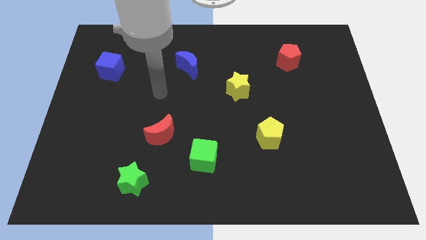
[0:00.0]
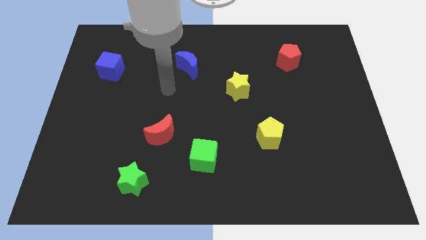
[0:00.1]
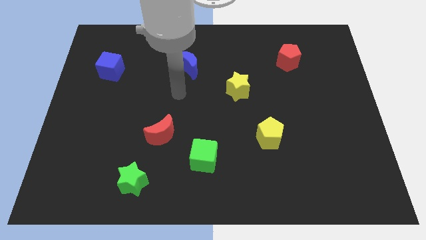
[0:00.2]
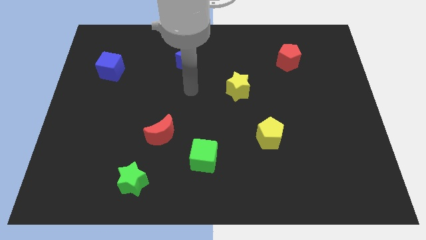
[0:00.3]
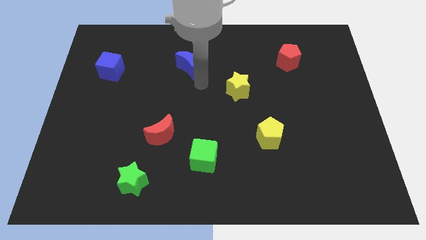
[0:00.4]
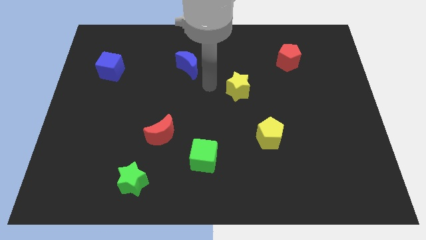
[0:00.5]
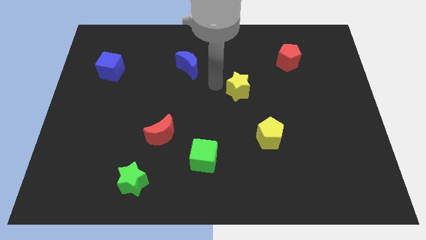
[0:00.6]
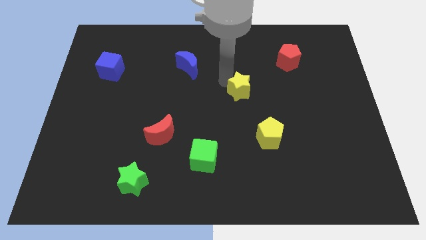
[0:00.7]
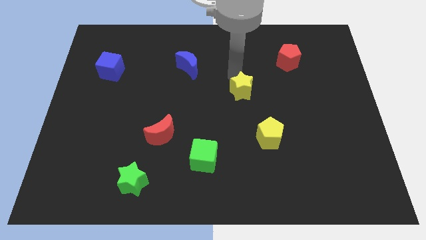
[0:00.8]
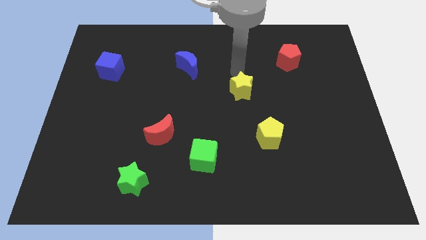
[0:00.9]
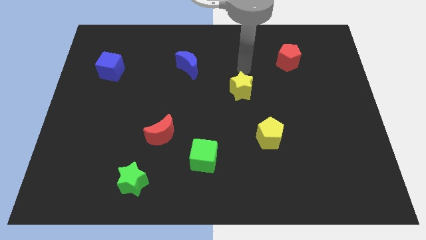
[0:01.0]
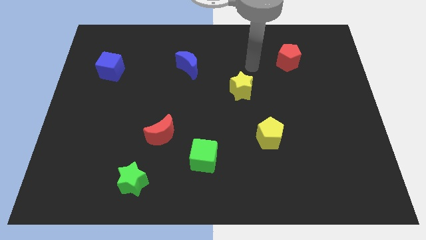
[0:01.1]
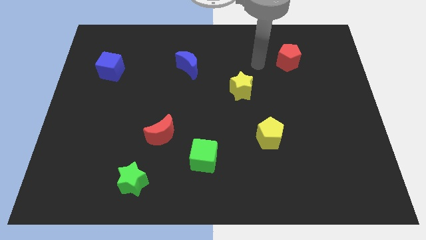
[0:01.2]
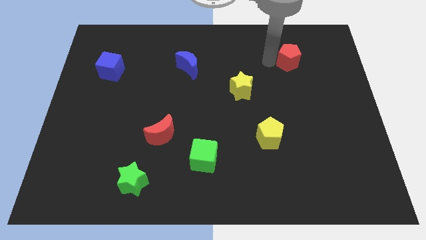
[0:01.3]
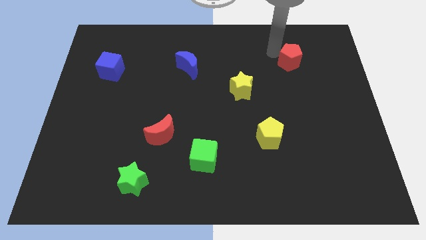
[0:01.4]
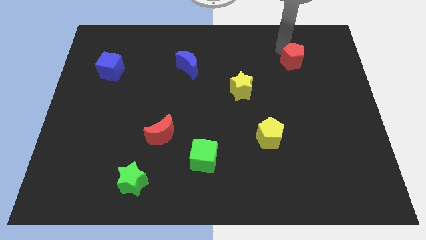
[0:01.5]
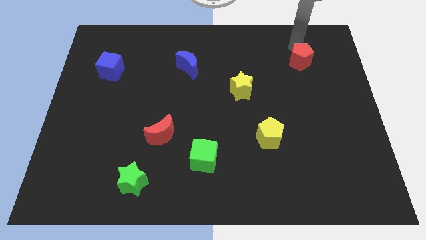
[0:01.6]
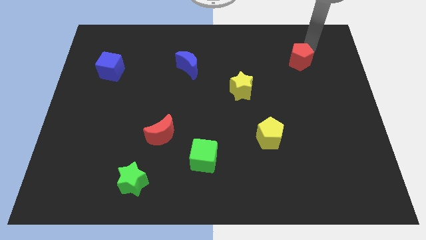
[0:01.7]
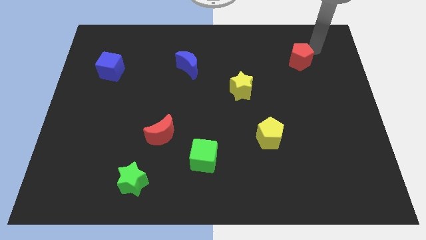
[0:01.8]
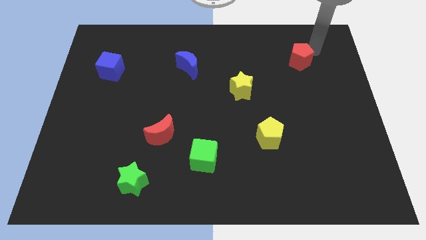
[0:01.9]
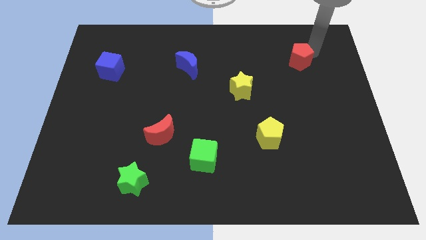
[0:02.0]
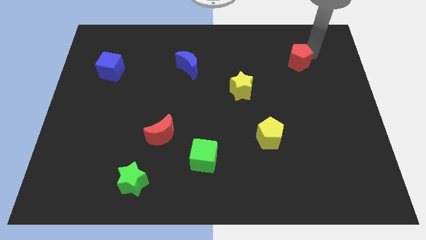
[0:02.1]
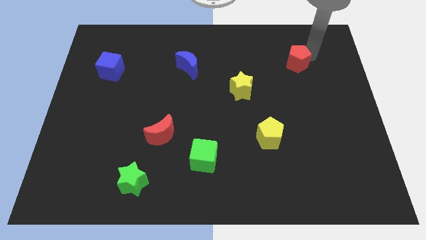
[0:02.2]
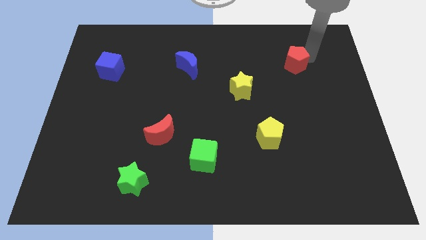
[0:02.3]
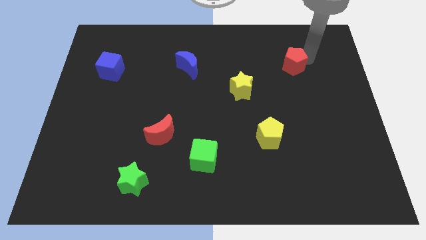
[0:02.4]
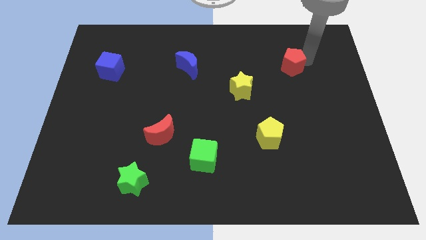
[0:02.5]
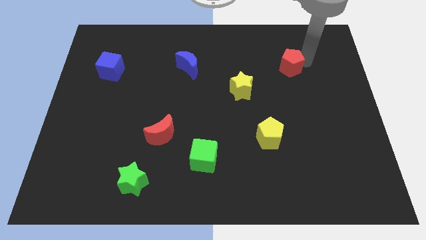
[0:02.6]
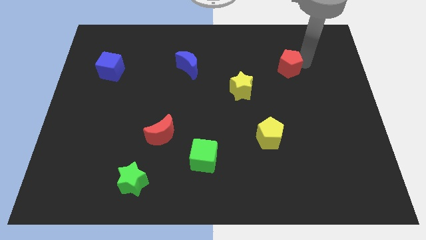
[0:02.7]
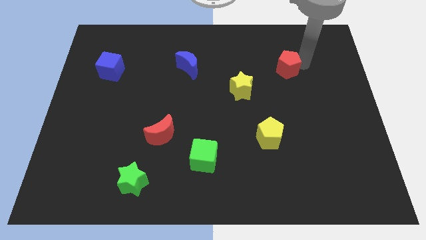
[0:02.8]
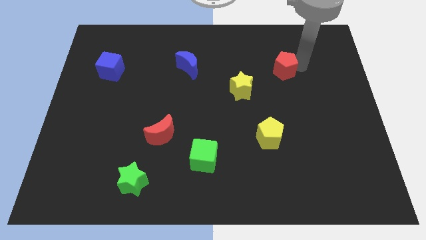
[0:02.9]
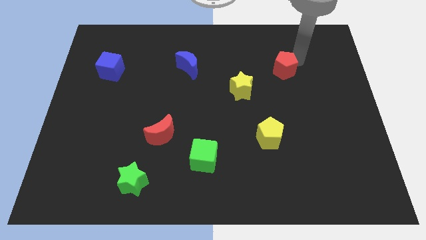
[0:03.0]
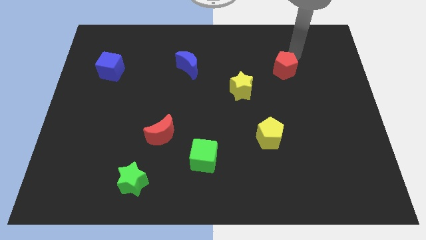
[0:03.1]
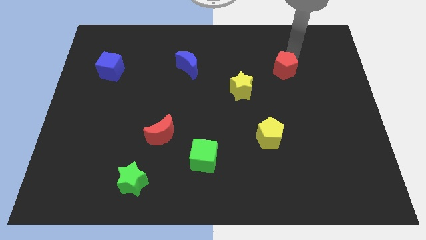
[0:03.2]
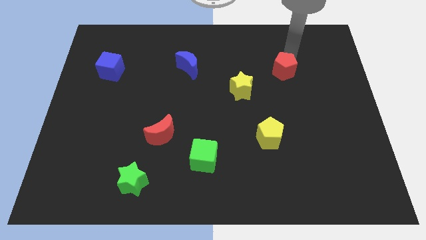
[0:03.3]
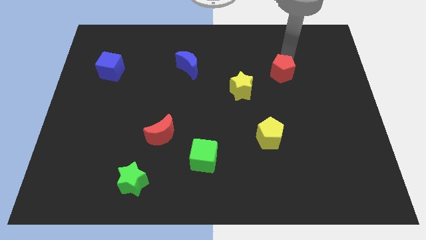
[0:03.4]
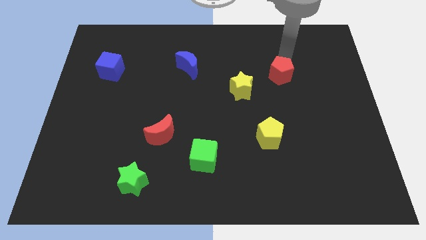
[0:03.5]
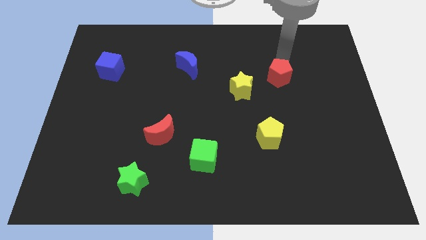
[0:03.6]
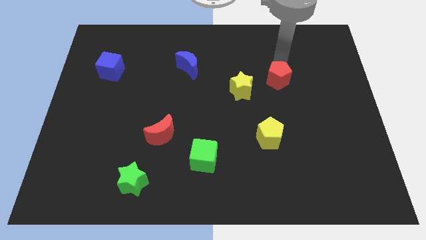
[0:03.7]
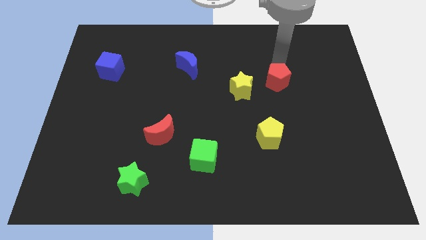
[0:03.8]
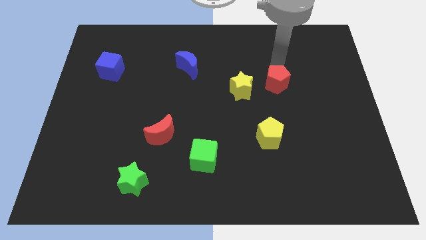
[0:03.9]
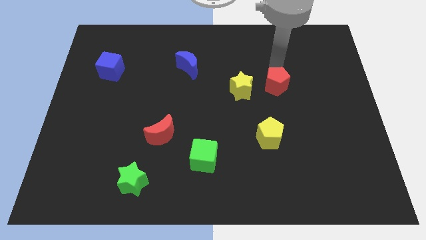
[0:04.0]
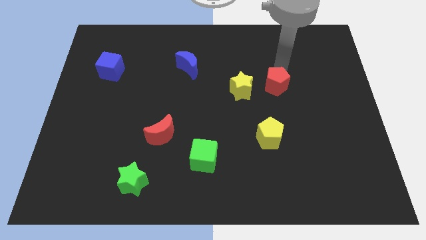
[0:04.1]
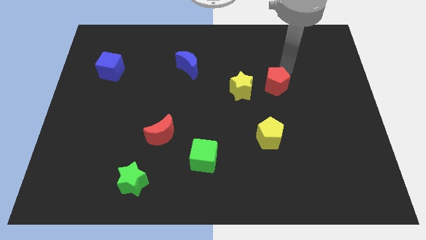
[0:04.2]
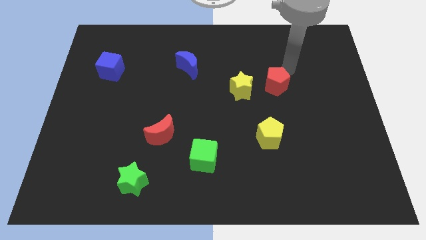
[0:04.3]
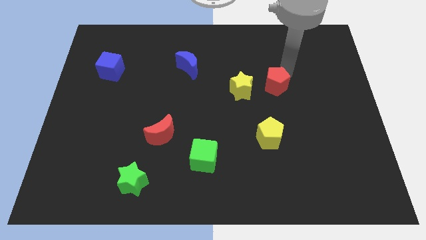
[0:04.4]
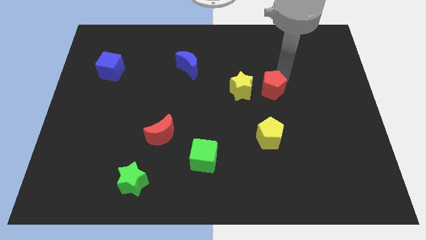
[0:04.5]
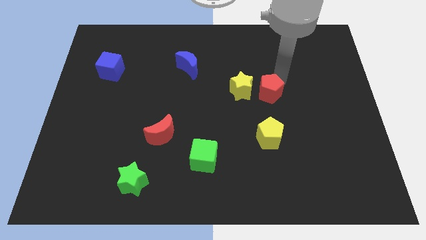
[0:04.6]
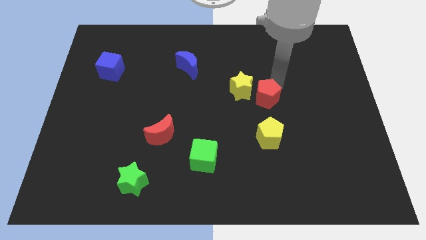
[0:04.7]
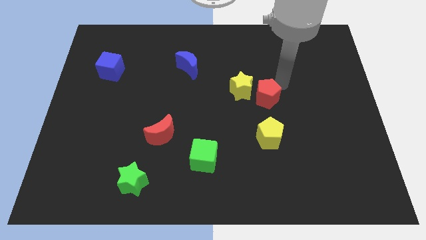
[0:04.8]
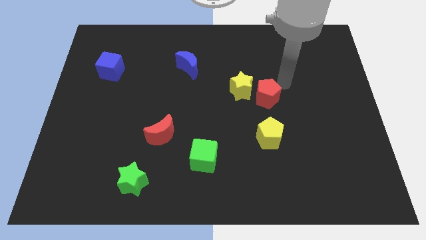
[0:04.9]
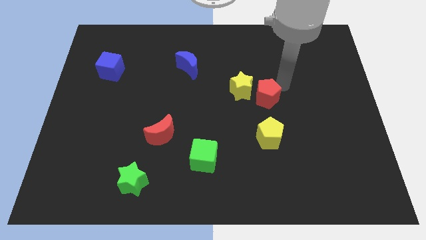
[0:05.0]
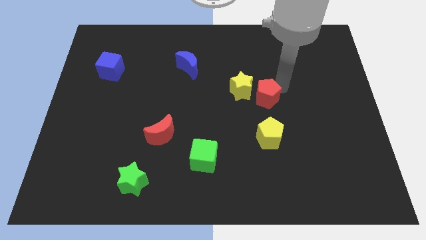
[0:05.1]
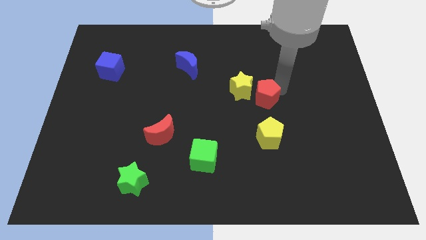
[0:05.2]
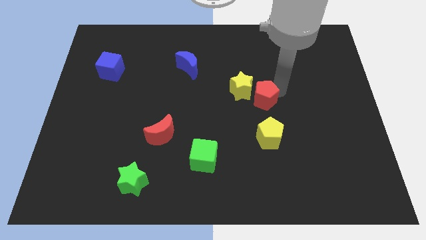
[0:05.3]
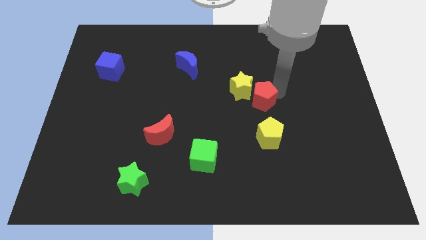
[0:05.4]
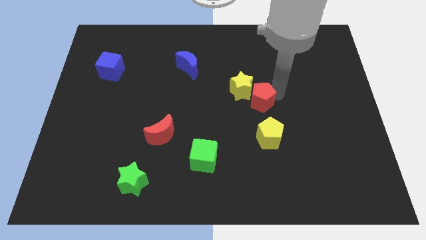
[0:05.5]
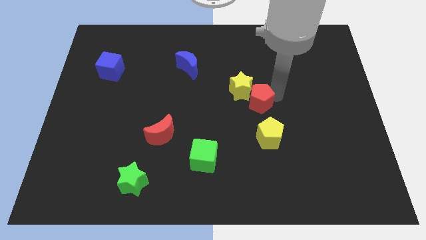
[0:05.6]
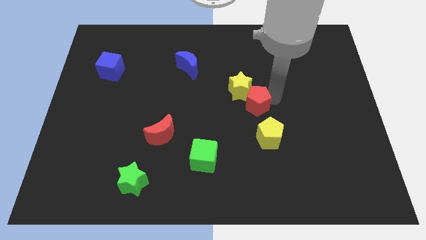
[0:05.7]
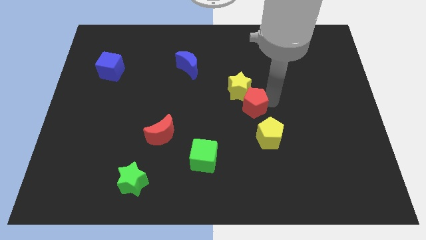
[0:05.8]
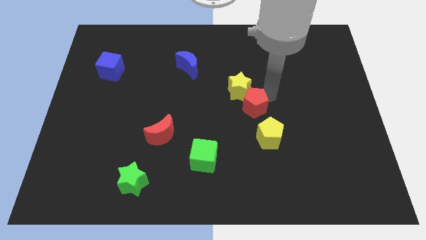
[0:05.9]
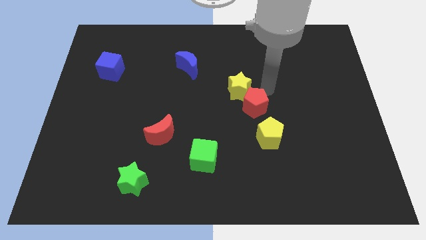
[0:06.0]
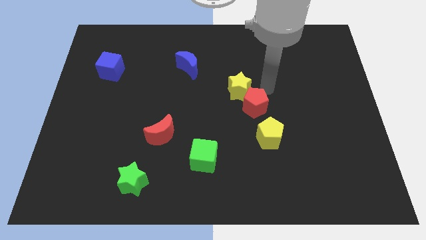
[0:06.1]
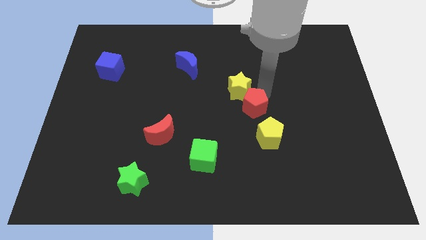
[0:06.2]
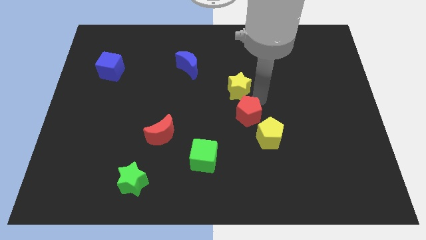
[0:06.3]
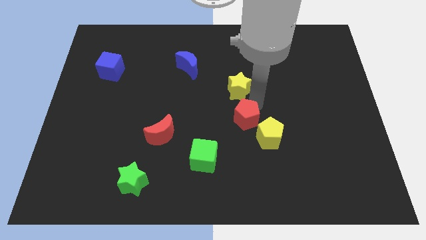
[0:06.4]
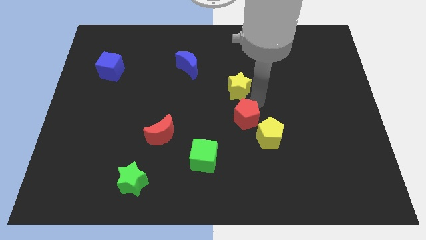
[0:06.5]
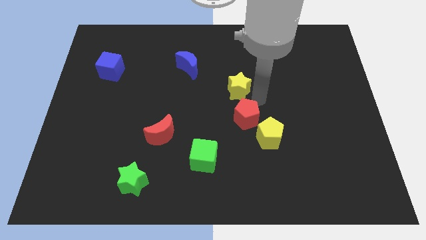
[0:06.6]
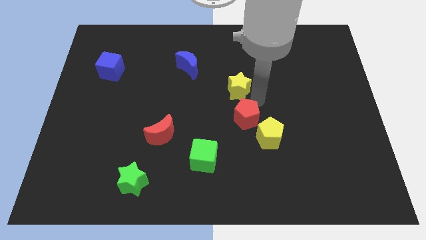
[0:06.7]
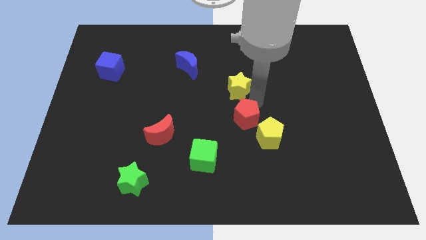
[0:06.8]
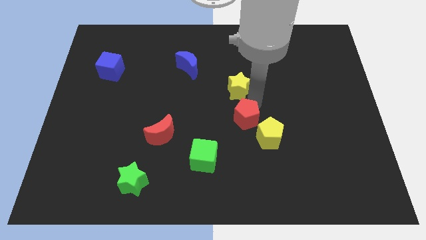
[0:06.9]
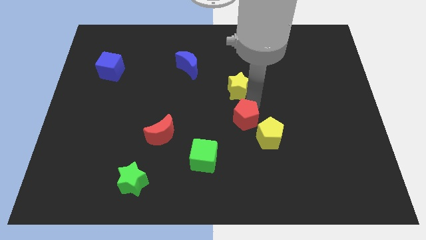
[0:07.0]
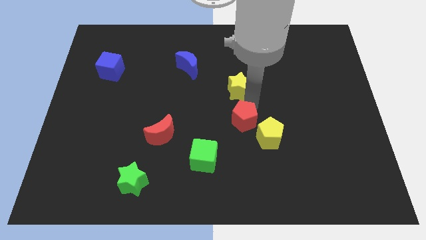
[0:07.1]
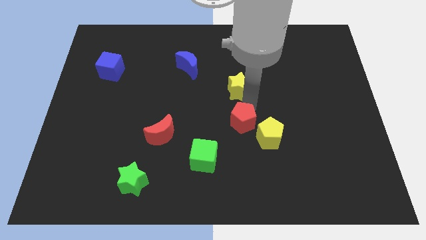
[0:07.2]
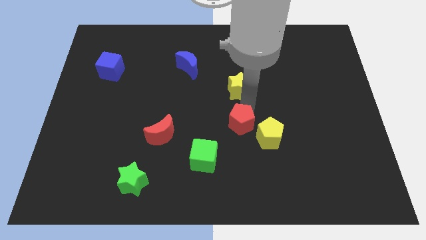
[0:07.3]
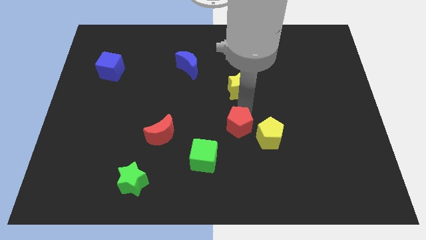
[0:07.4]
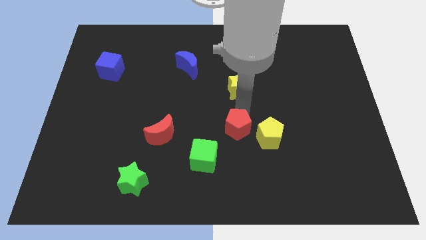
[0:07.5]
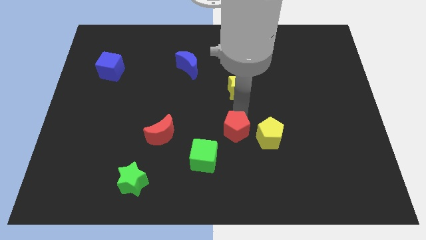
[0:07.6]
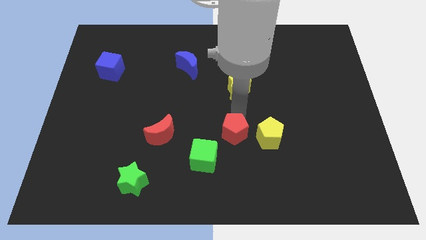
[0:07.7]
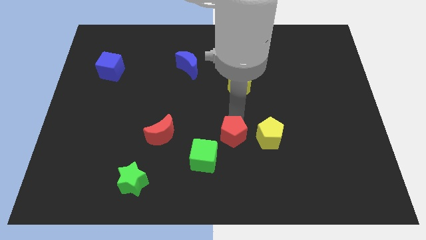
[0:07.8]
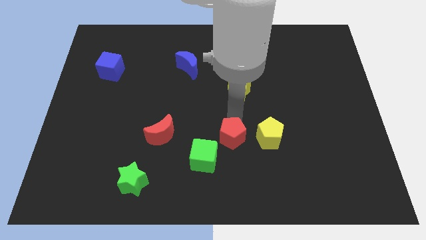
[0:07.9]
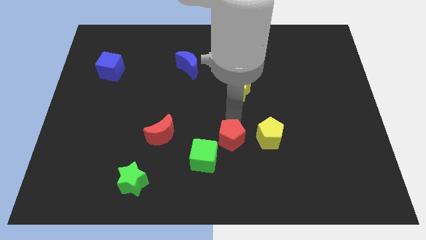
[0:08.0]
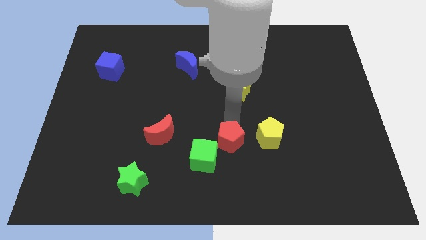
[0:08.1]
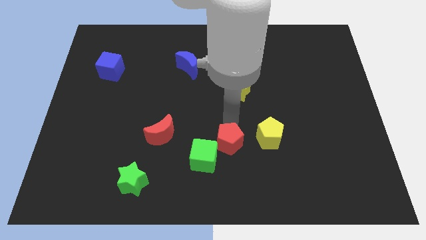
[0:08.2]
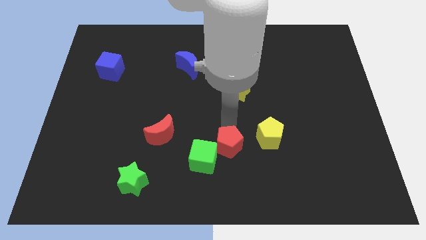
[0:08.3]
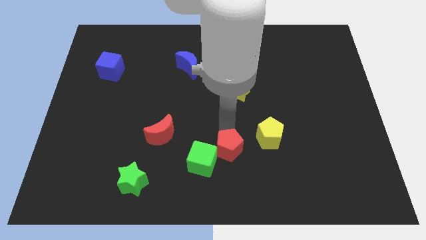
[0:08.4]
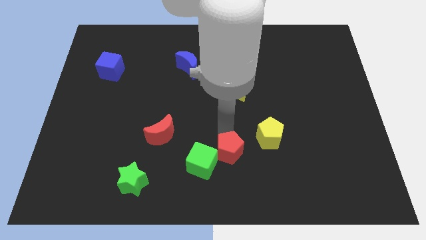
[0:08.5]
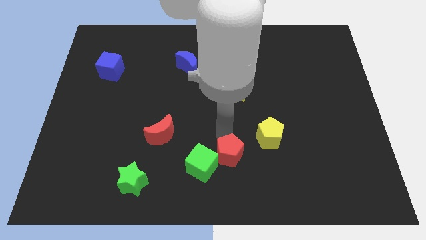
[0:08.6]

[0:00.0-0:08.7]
put the red pentagon to the bottom
